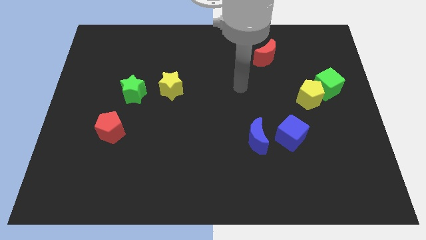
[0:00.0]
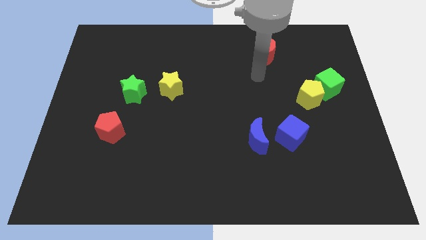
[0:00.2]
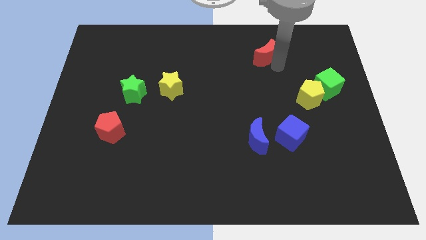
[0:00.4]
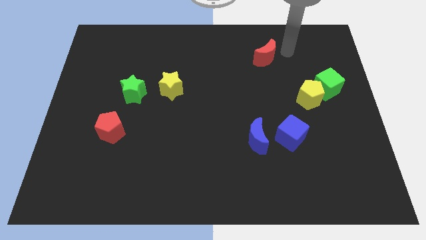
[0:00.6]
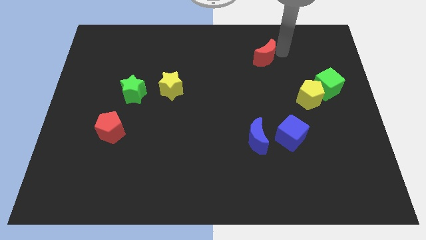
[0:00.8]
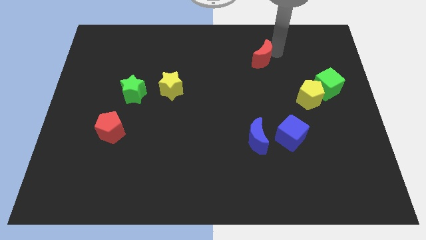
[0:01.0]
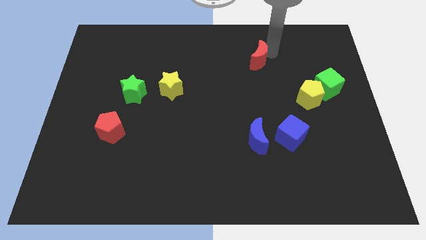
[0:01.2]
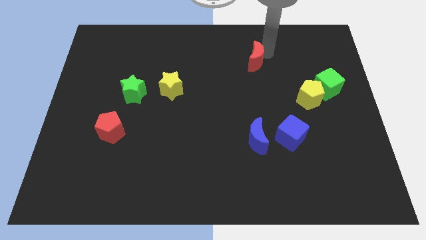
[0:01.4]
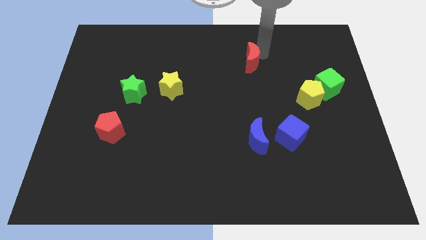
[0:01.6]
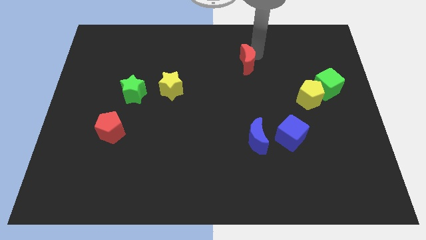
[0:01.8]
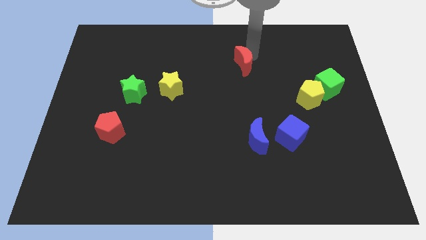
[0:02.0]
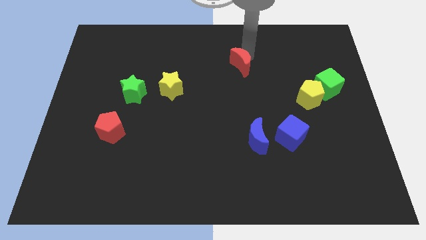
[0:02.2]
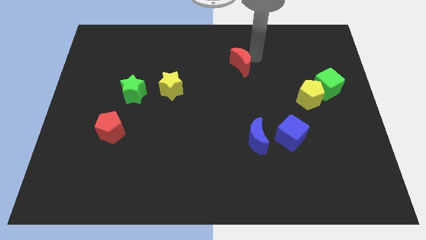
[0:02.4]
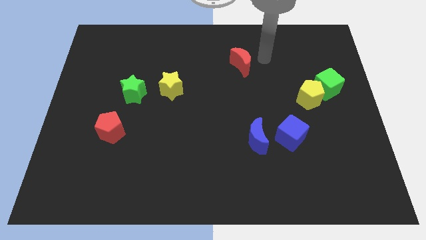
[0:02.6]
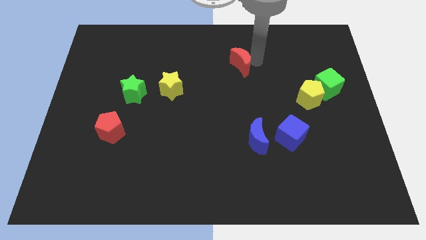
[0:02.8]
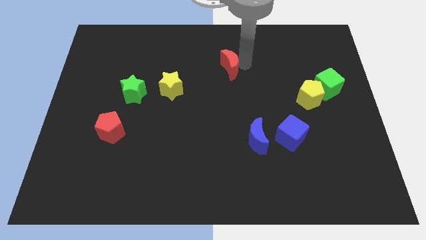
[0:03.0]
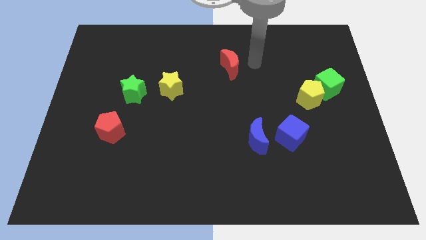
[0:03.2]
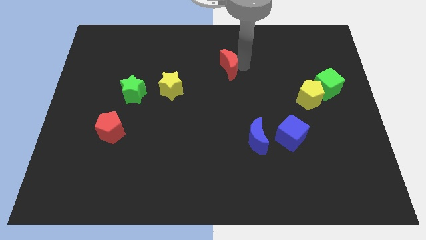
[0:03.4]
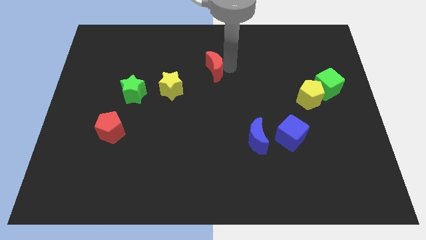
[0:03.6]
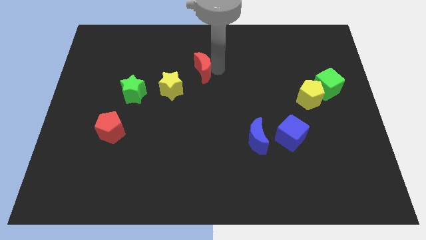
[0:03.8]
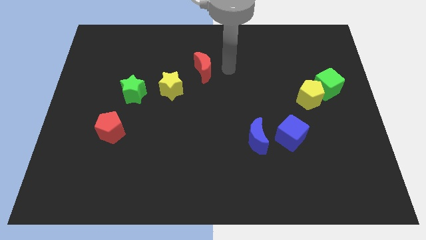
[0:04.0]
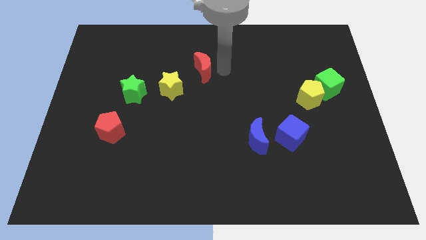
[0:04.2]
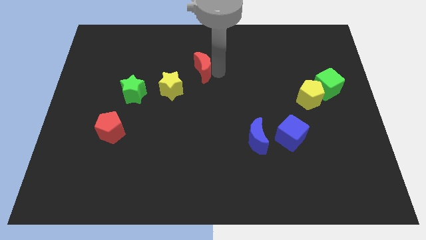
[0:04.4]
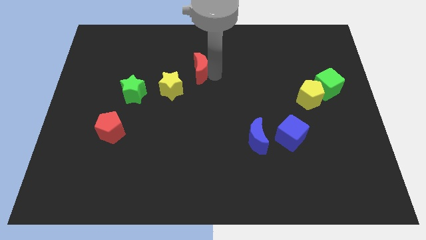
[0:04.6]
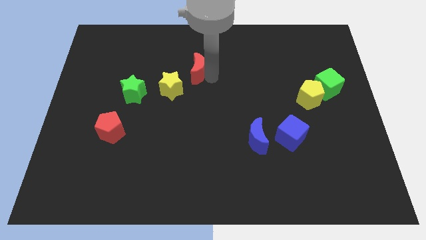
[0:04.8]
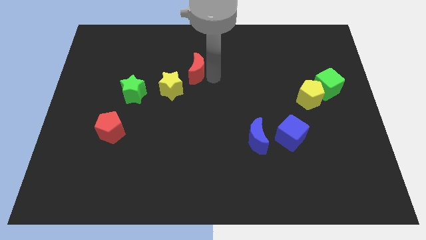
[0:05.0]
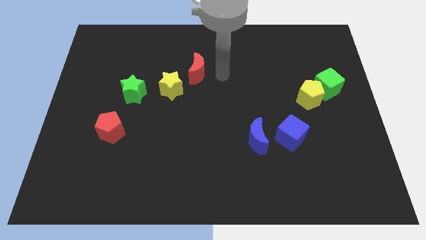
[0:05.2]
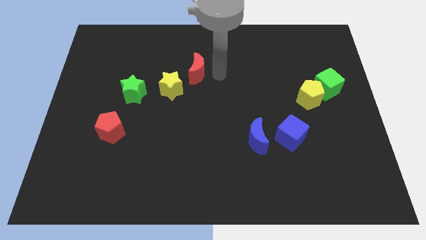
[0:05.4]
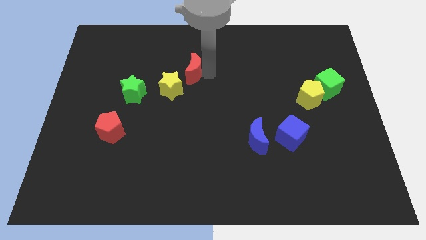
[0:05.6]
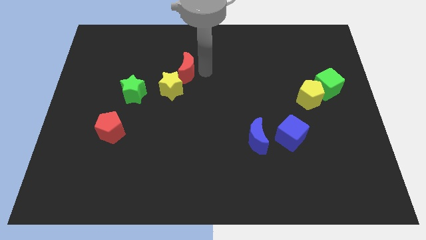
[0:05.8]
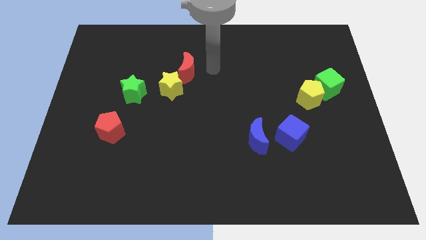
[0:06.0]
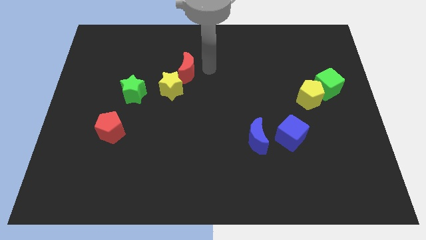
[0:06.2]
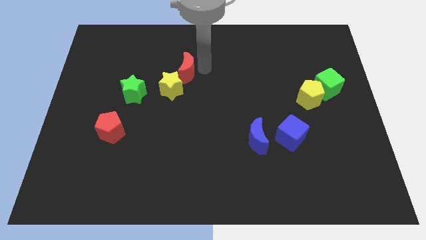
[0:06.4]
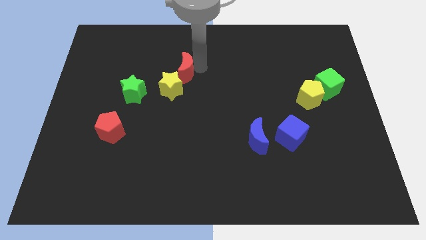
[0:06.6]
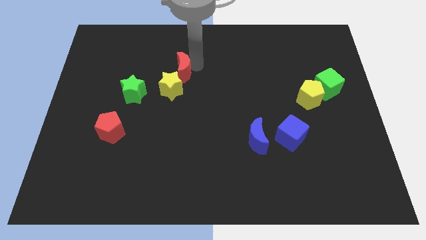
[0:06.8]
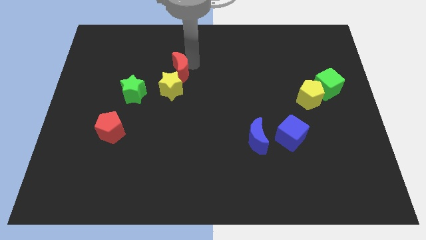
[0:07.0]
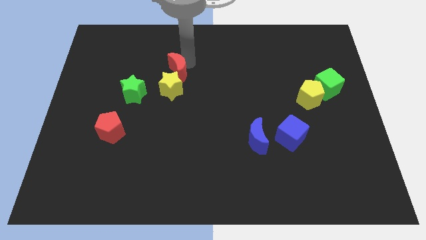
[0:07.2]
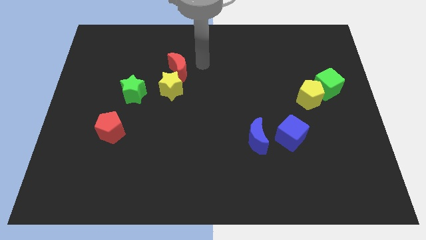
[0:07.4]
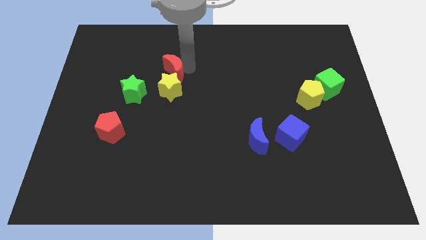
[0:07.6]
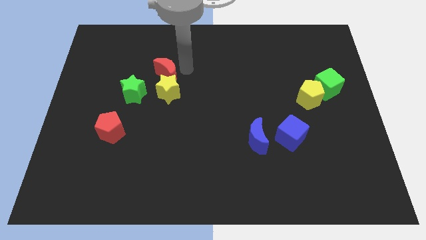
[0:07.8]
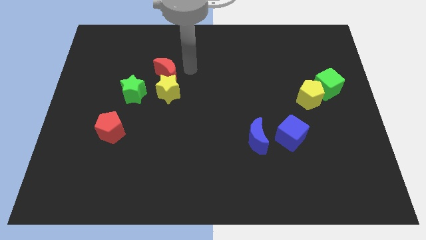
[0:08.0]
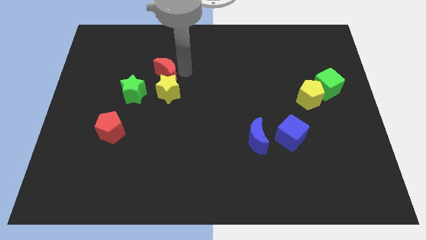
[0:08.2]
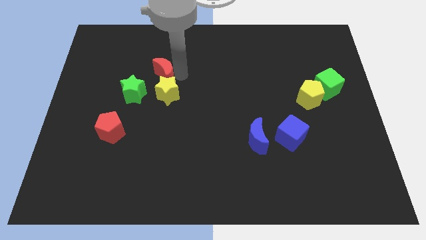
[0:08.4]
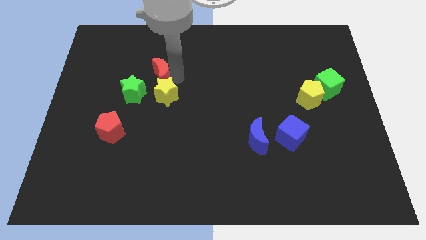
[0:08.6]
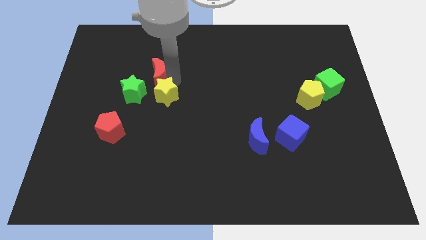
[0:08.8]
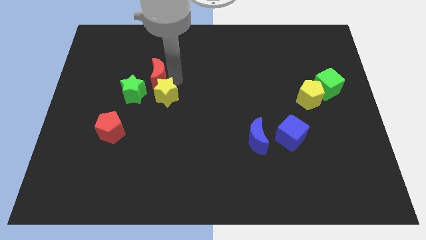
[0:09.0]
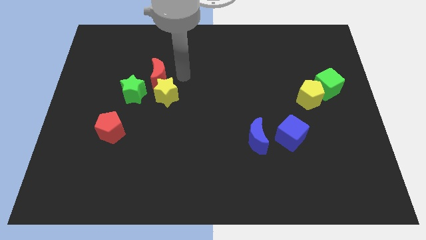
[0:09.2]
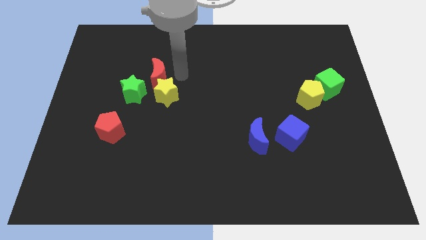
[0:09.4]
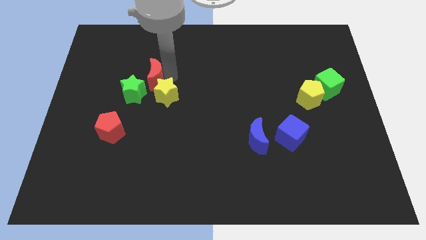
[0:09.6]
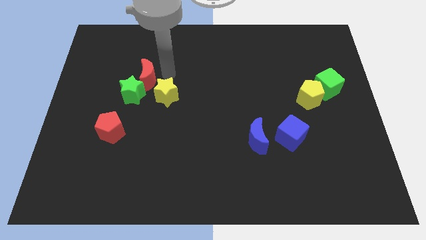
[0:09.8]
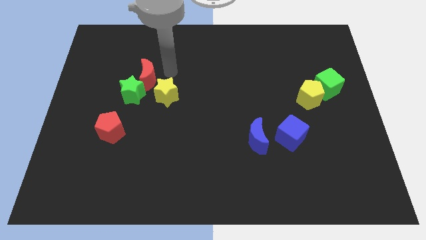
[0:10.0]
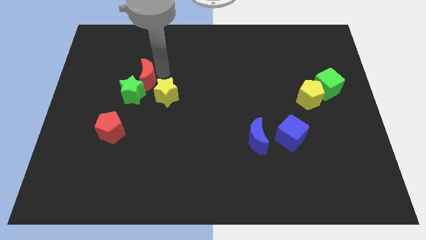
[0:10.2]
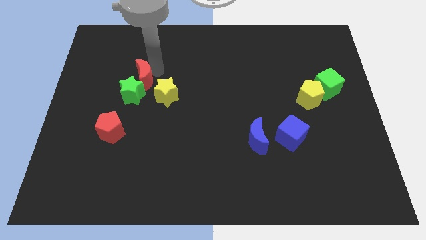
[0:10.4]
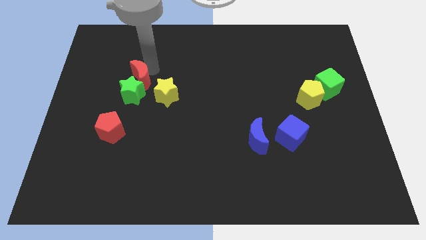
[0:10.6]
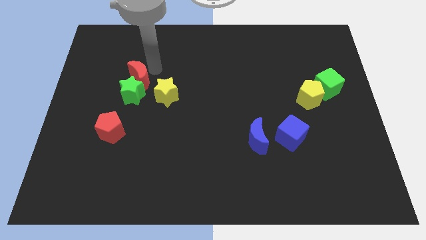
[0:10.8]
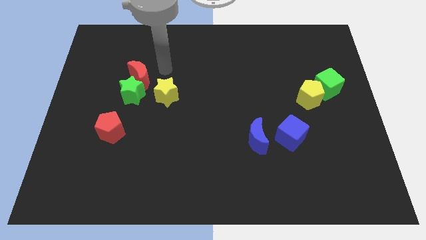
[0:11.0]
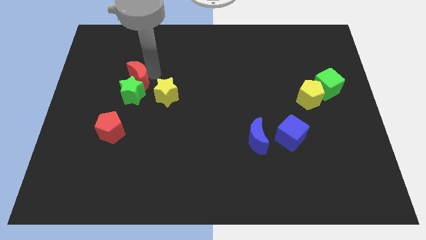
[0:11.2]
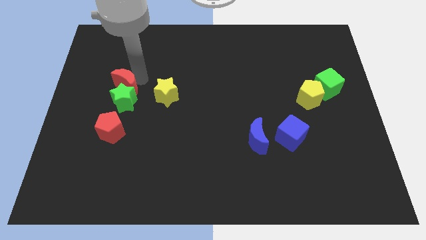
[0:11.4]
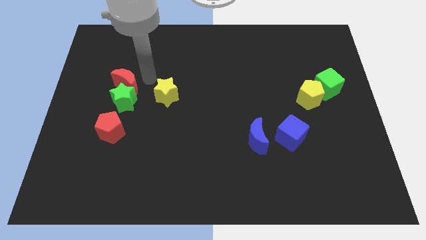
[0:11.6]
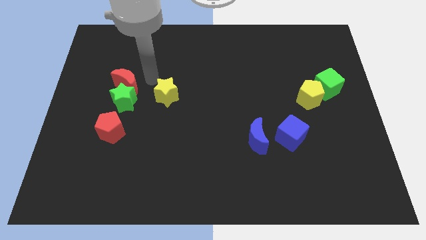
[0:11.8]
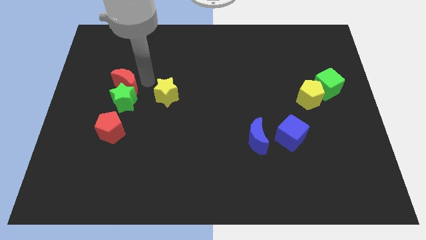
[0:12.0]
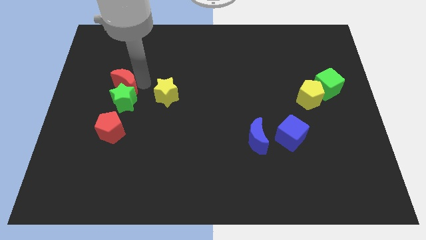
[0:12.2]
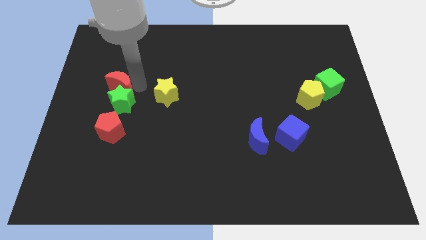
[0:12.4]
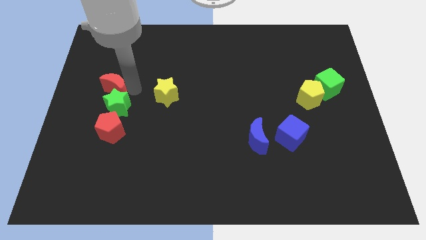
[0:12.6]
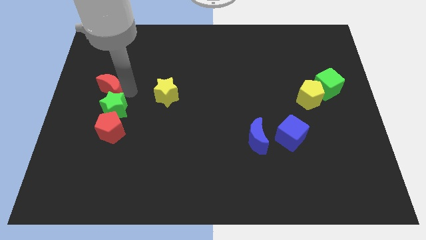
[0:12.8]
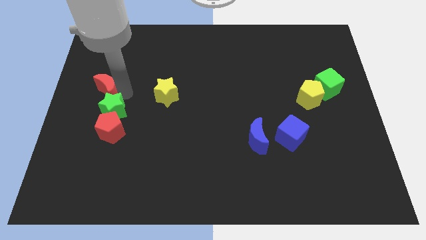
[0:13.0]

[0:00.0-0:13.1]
push the red moon to the center left
